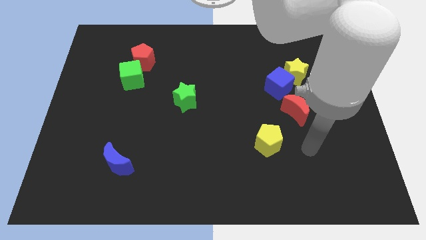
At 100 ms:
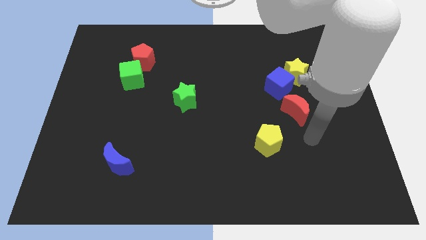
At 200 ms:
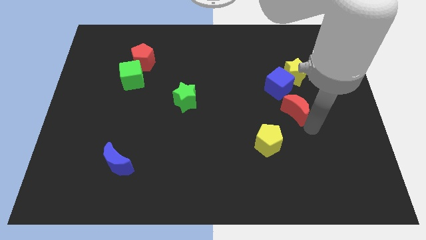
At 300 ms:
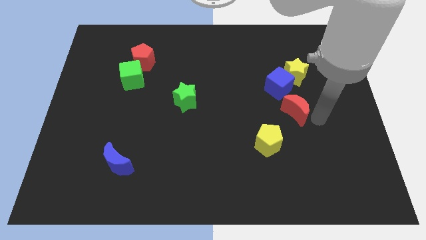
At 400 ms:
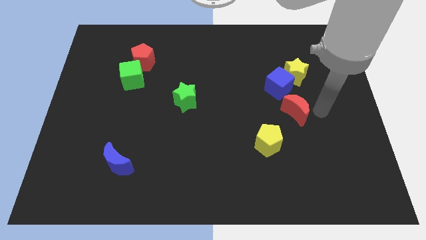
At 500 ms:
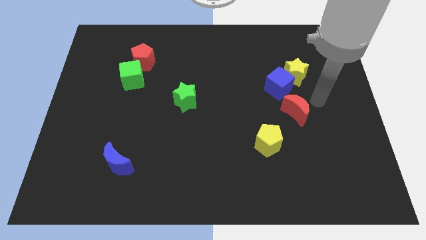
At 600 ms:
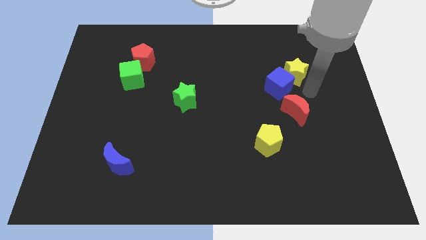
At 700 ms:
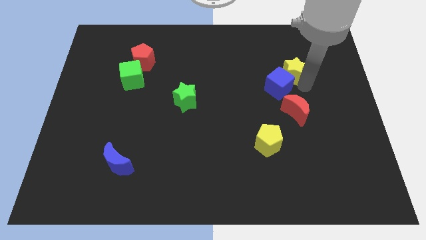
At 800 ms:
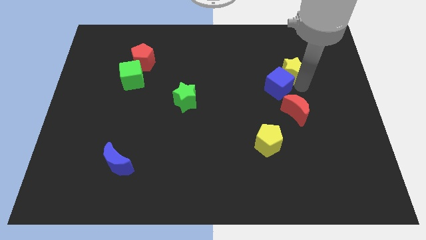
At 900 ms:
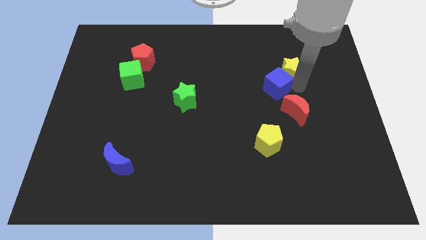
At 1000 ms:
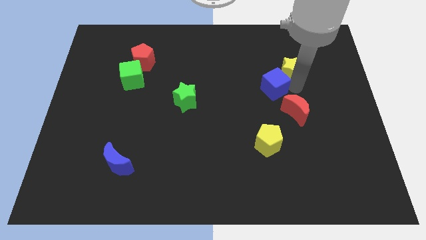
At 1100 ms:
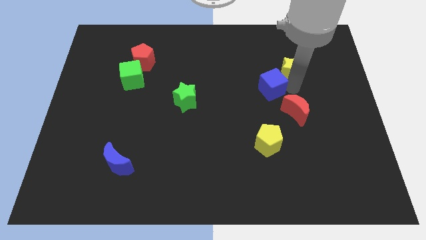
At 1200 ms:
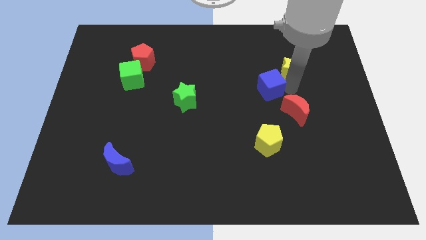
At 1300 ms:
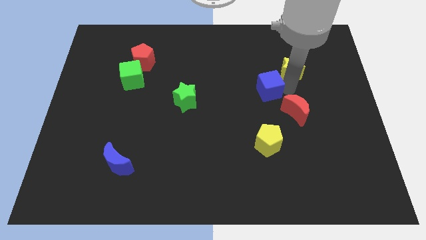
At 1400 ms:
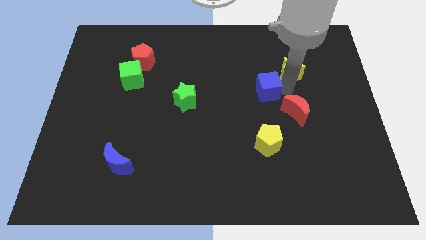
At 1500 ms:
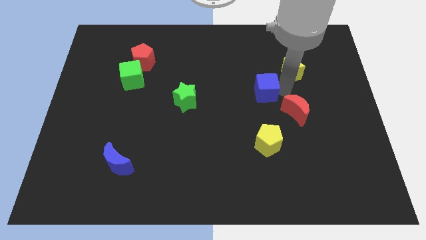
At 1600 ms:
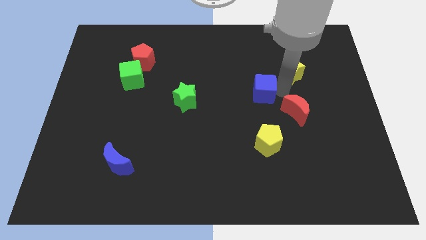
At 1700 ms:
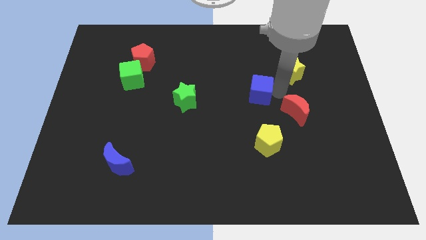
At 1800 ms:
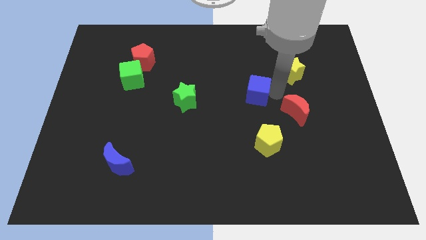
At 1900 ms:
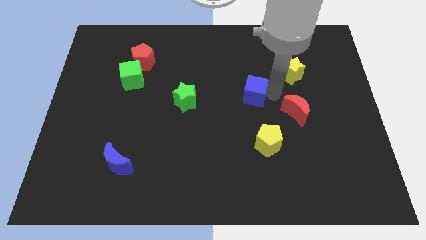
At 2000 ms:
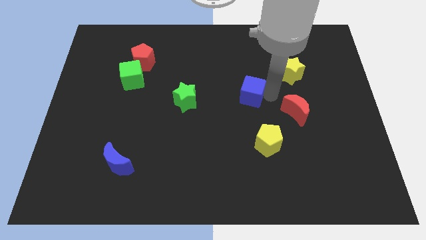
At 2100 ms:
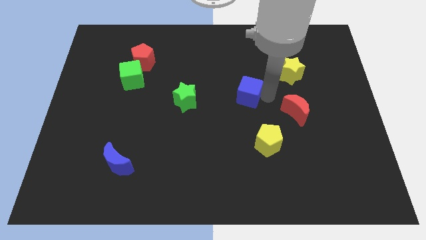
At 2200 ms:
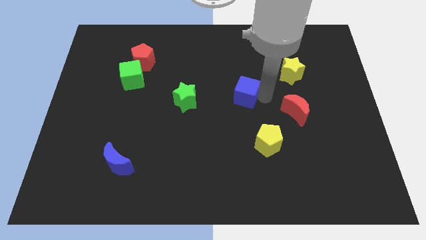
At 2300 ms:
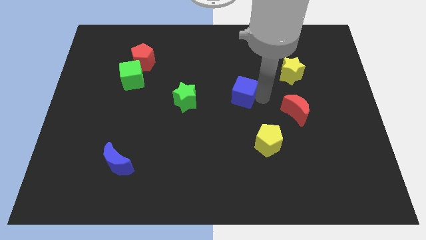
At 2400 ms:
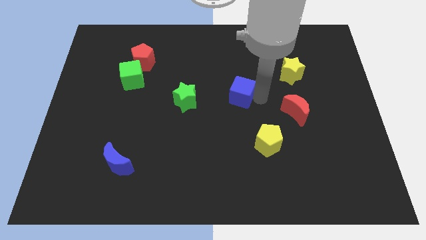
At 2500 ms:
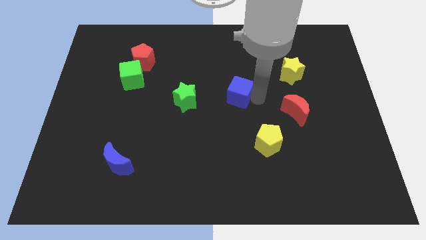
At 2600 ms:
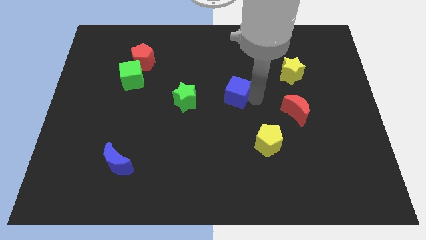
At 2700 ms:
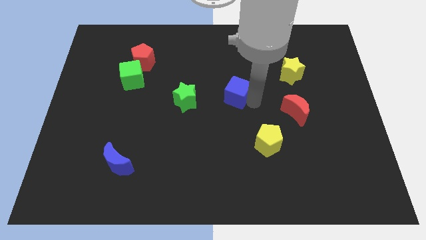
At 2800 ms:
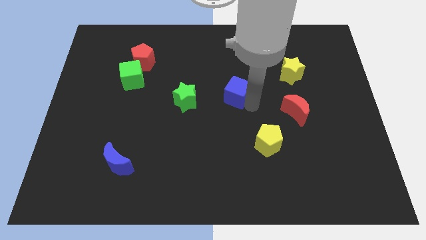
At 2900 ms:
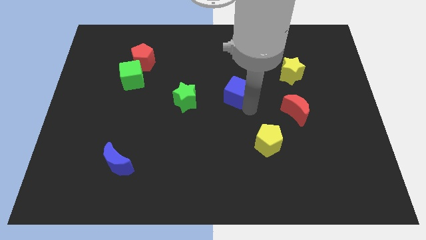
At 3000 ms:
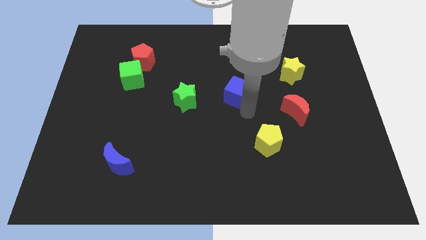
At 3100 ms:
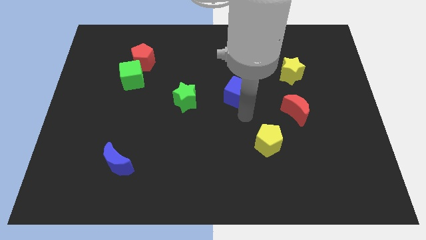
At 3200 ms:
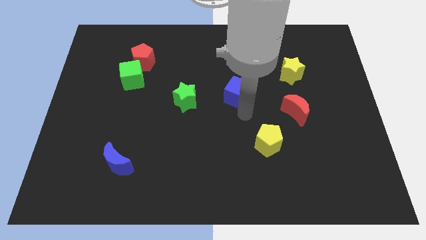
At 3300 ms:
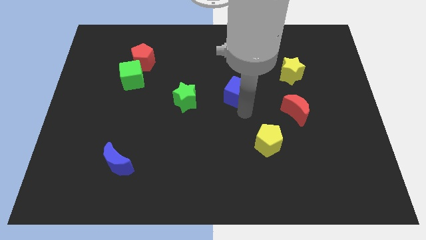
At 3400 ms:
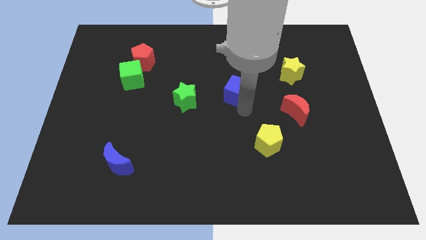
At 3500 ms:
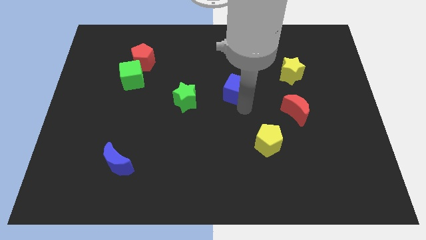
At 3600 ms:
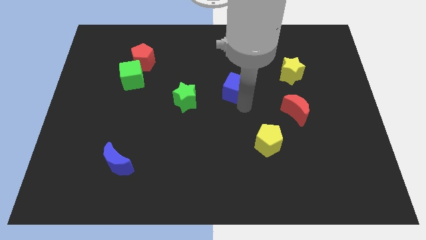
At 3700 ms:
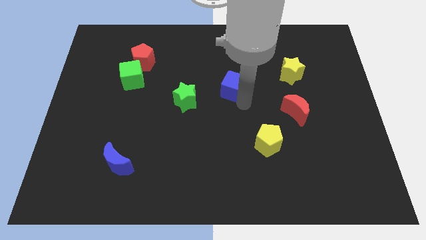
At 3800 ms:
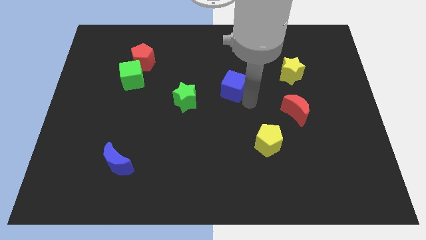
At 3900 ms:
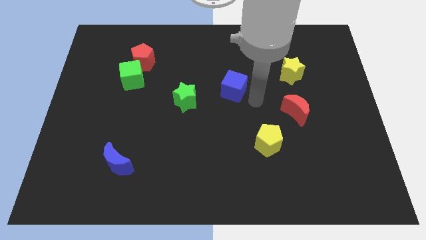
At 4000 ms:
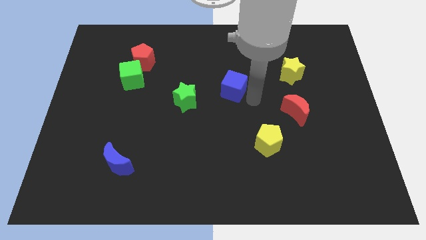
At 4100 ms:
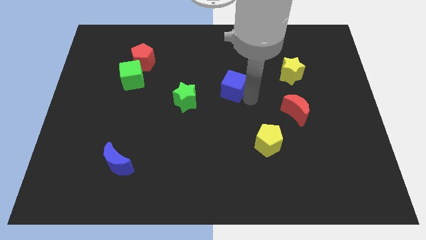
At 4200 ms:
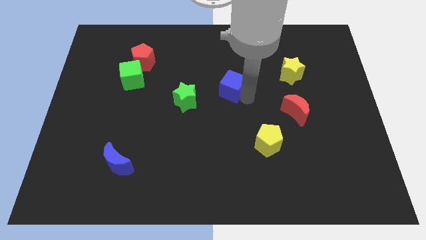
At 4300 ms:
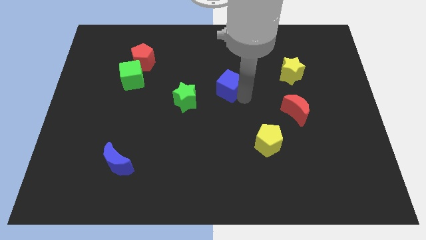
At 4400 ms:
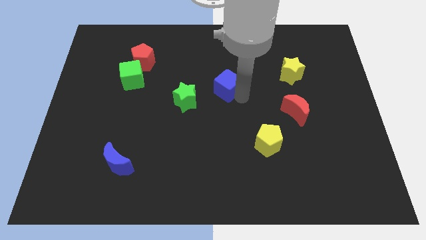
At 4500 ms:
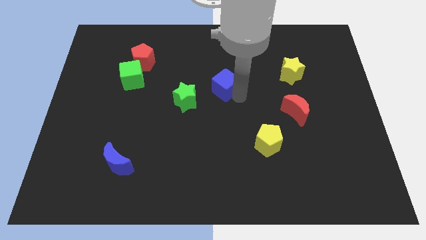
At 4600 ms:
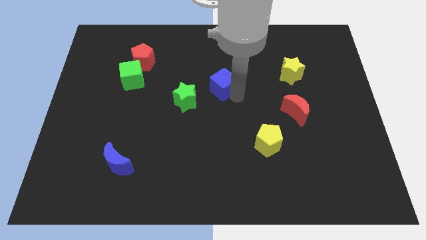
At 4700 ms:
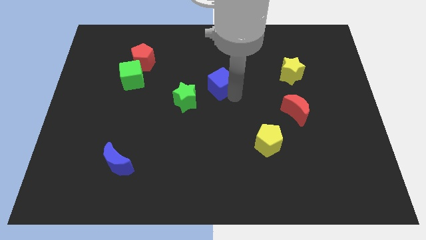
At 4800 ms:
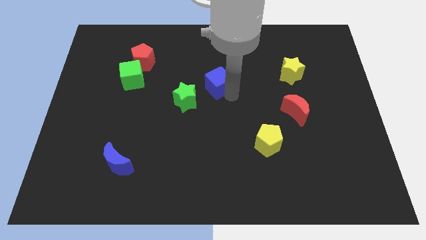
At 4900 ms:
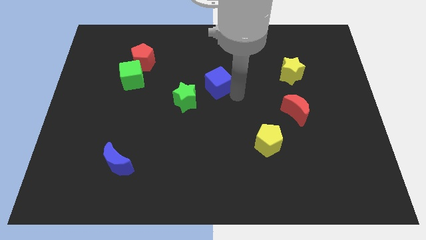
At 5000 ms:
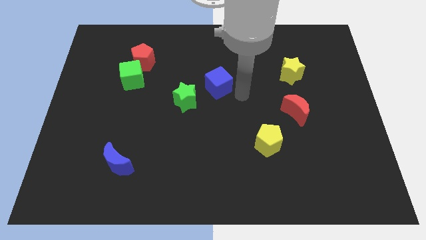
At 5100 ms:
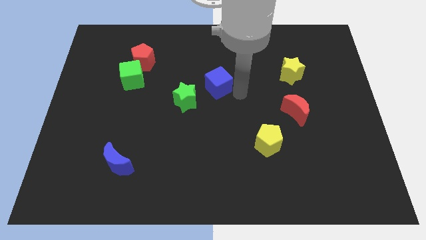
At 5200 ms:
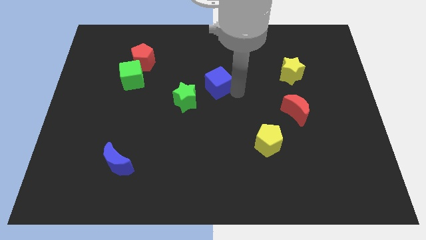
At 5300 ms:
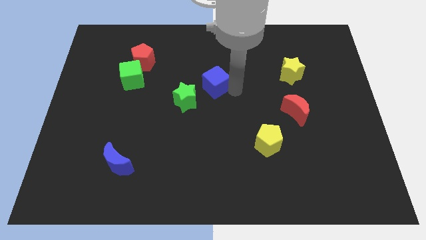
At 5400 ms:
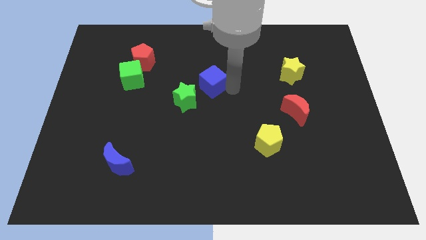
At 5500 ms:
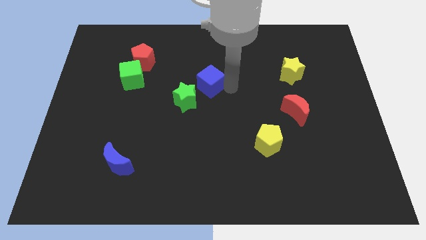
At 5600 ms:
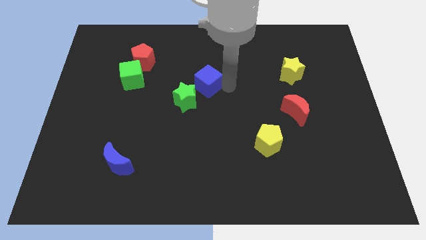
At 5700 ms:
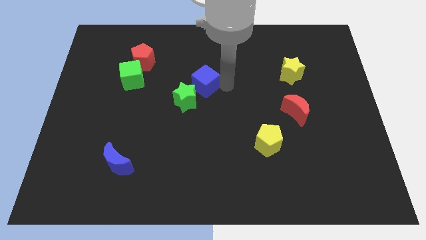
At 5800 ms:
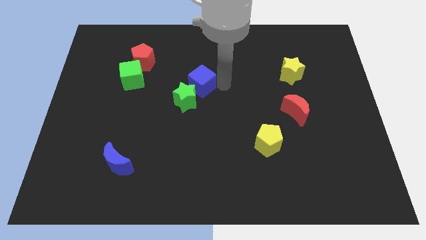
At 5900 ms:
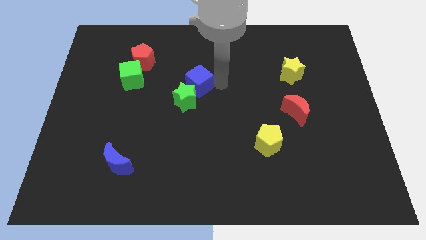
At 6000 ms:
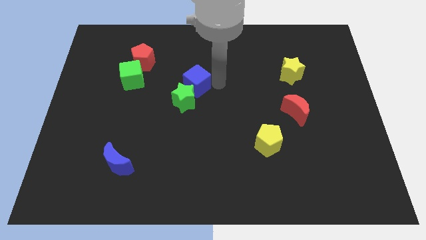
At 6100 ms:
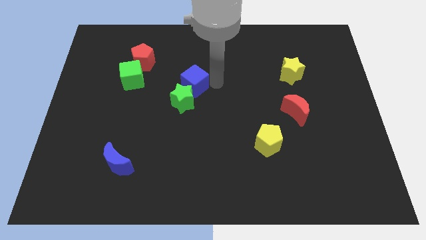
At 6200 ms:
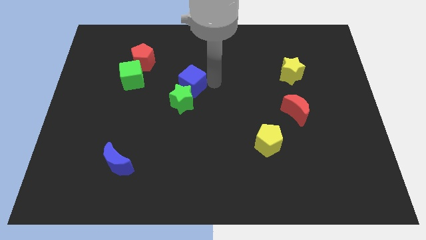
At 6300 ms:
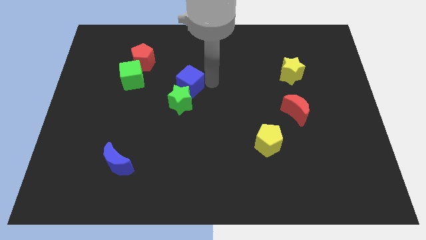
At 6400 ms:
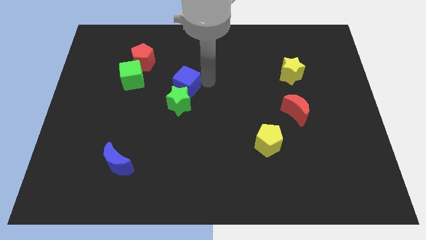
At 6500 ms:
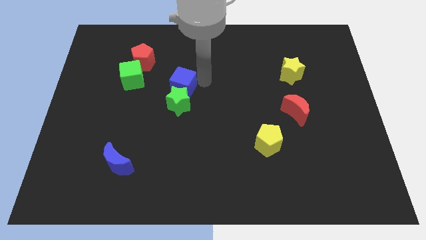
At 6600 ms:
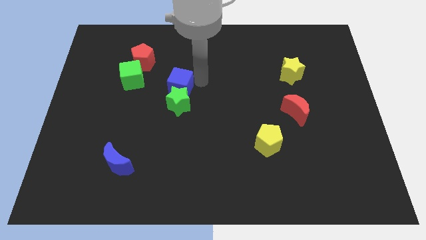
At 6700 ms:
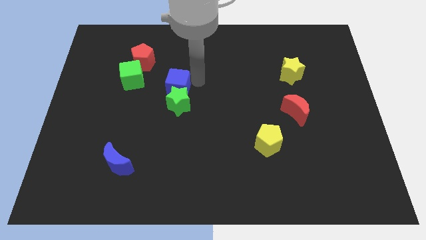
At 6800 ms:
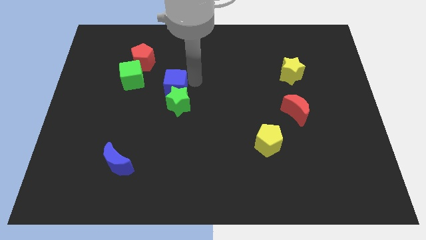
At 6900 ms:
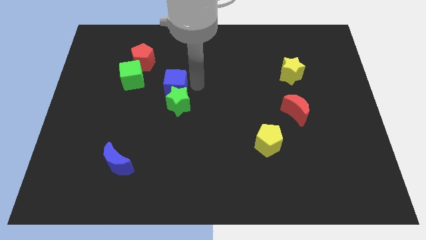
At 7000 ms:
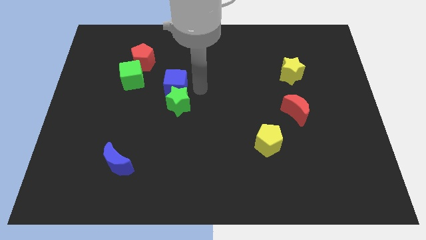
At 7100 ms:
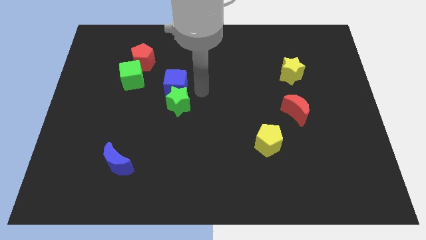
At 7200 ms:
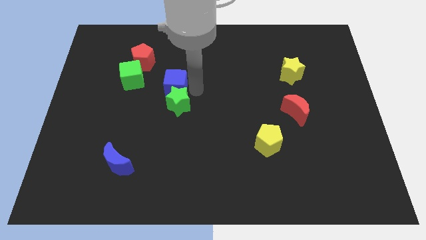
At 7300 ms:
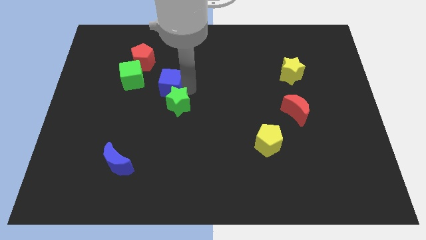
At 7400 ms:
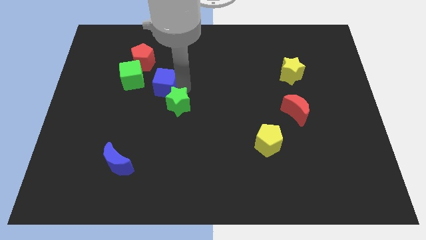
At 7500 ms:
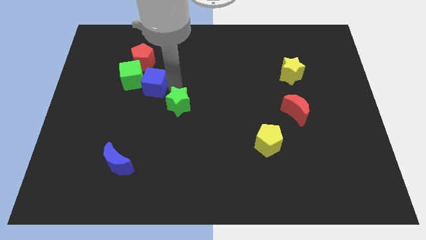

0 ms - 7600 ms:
push the blue cube close to the green cube
